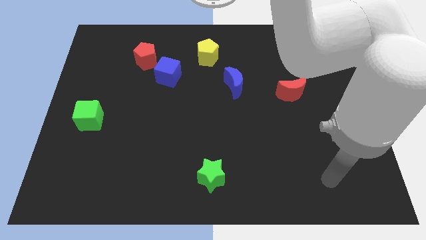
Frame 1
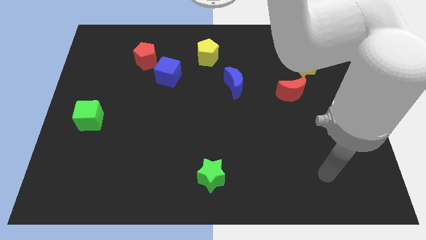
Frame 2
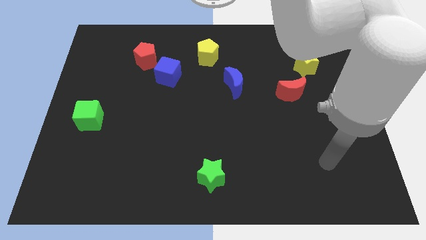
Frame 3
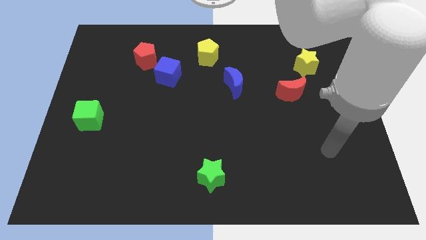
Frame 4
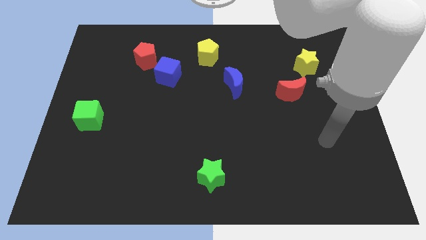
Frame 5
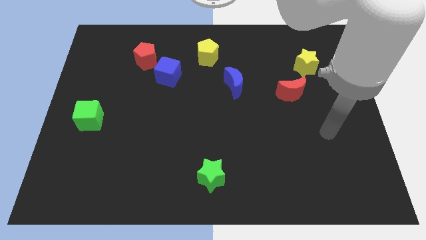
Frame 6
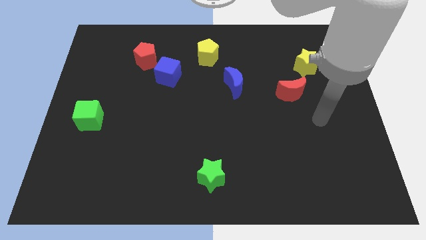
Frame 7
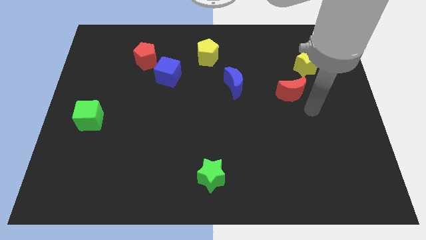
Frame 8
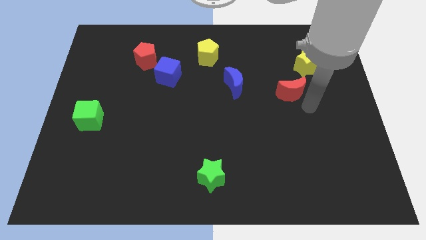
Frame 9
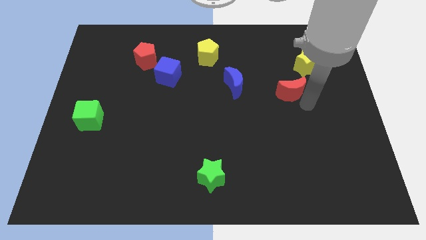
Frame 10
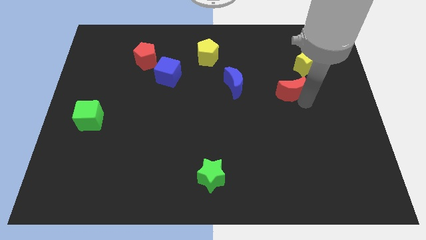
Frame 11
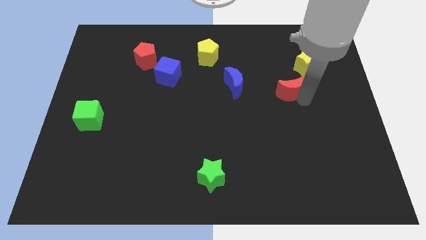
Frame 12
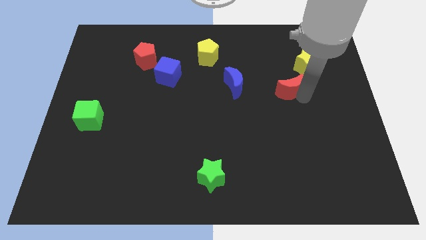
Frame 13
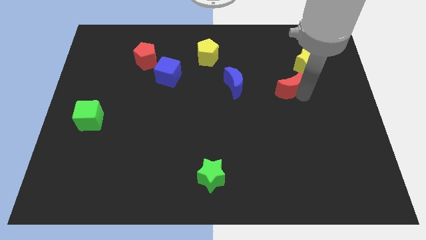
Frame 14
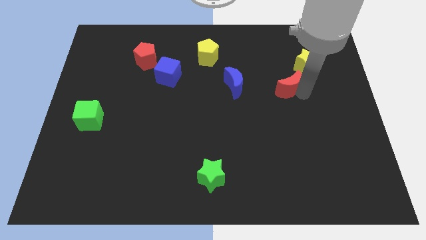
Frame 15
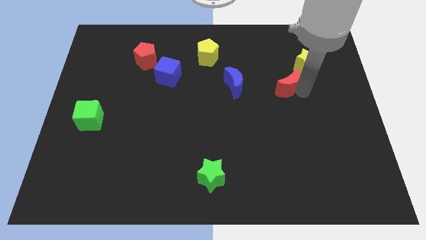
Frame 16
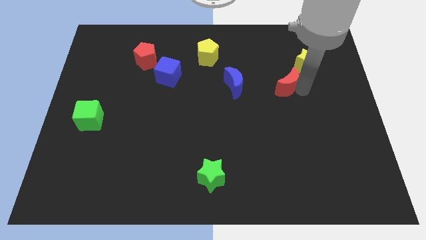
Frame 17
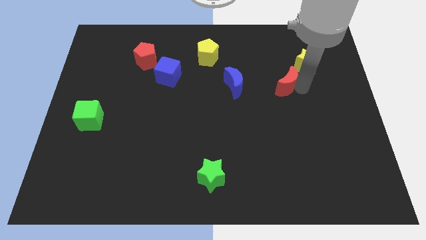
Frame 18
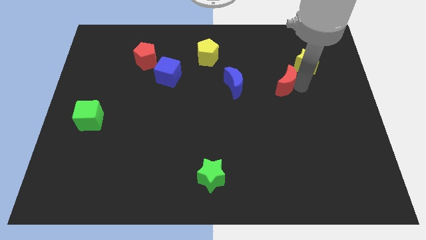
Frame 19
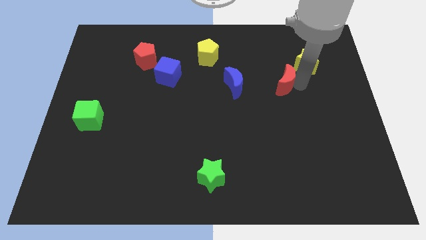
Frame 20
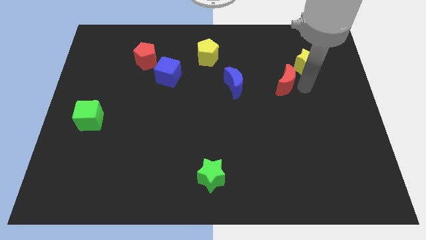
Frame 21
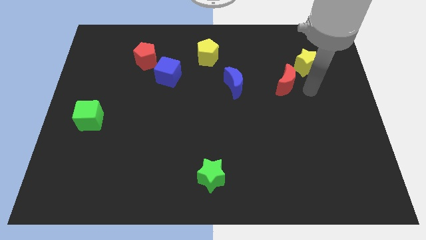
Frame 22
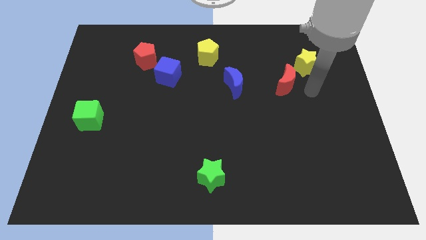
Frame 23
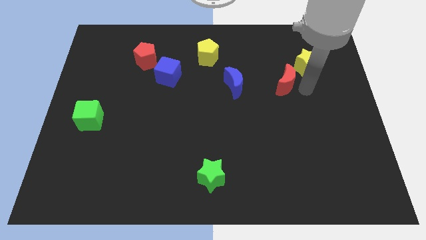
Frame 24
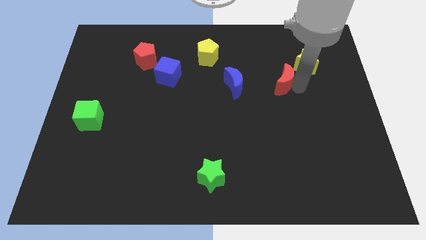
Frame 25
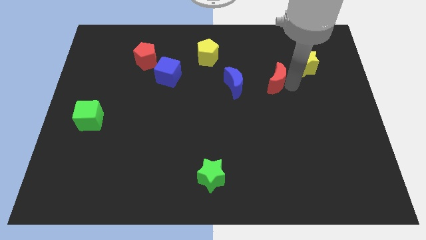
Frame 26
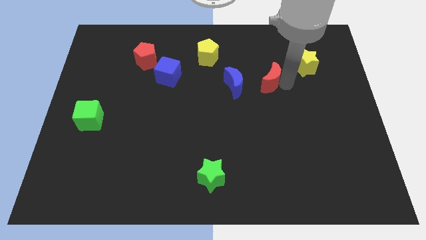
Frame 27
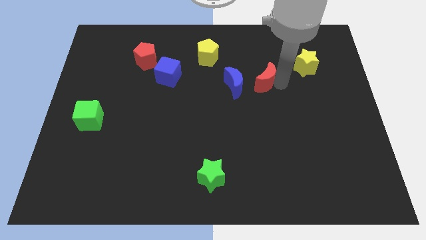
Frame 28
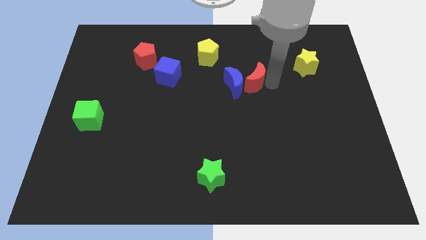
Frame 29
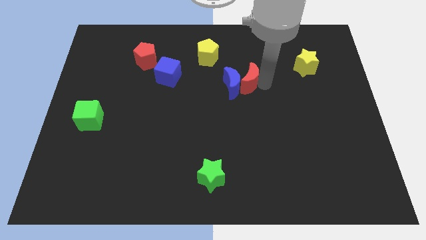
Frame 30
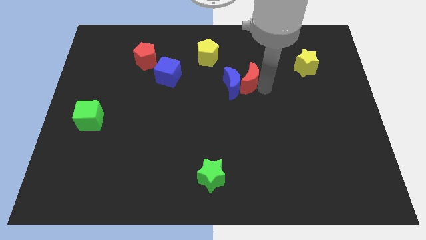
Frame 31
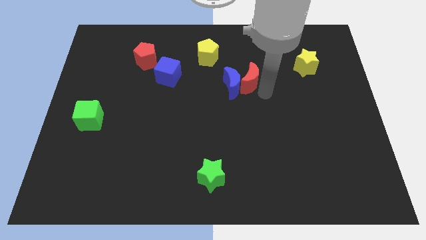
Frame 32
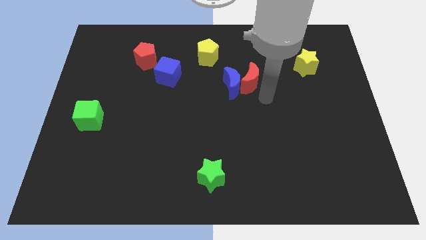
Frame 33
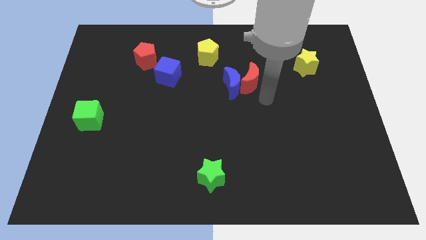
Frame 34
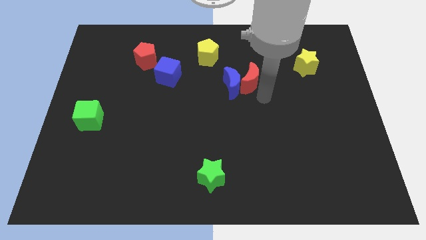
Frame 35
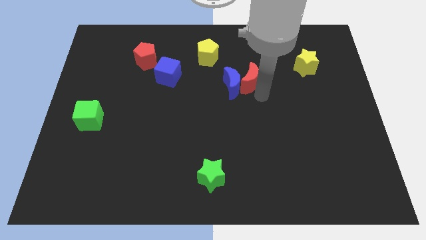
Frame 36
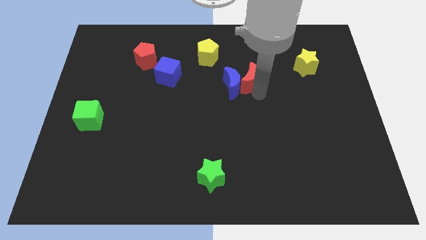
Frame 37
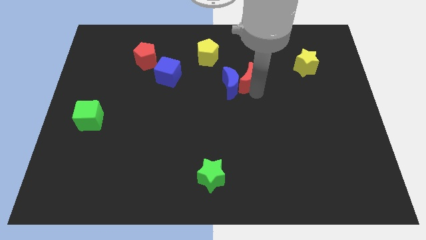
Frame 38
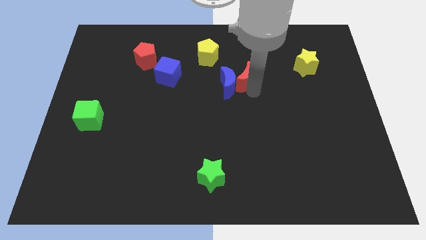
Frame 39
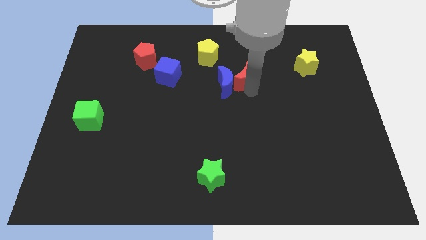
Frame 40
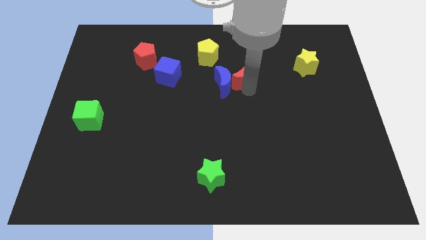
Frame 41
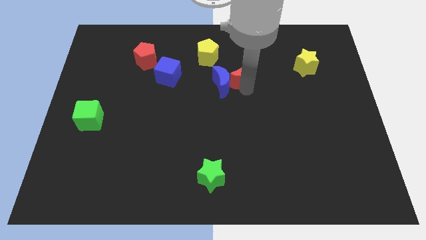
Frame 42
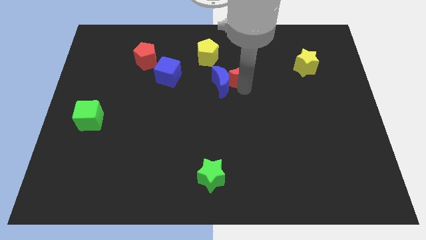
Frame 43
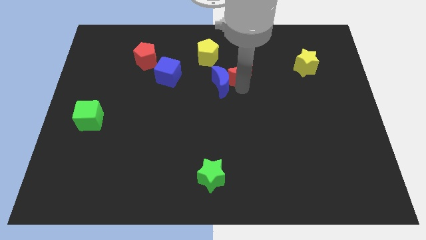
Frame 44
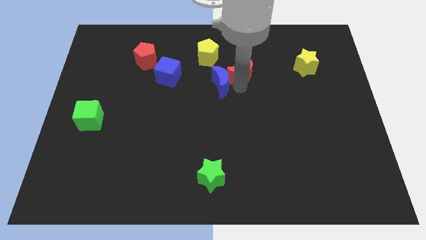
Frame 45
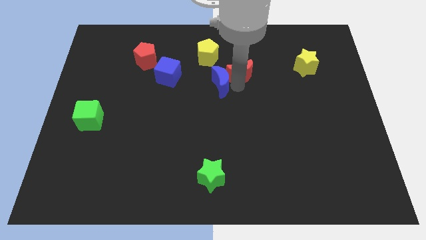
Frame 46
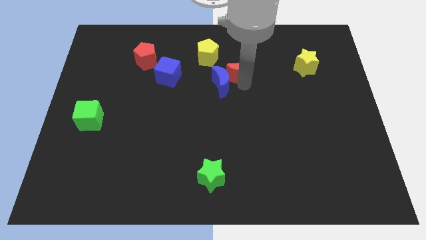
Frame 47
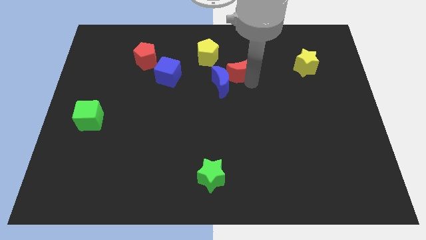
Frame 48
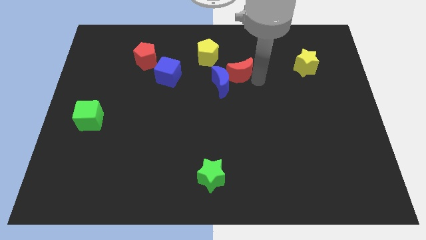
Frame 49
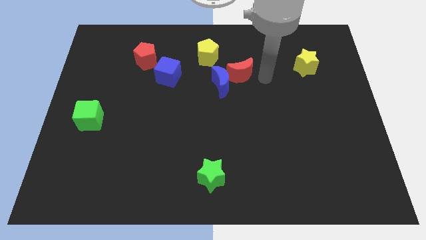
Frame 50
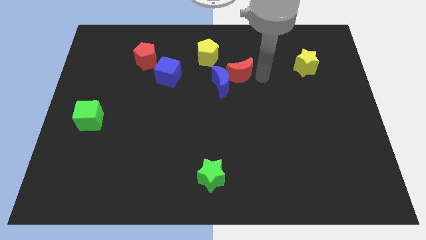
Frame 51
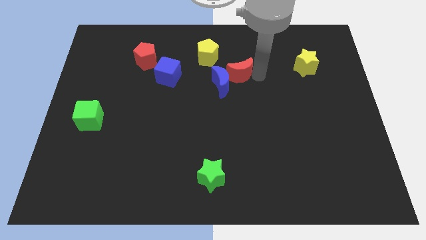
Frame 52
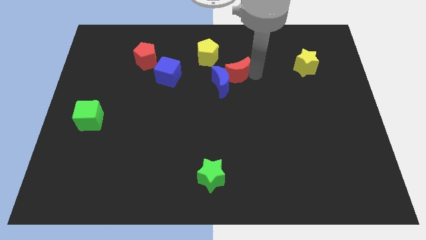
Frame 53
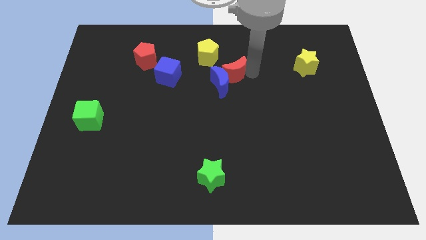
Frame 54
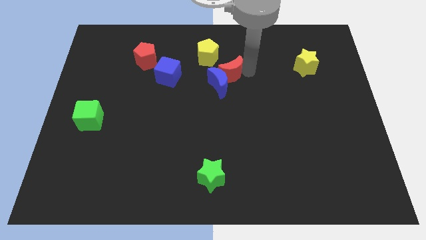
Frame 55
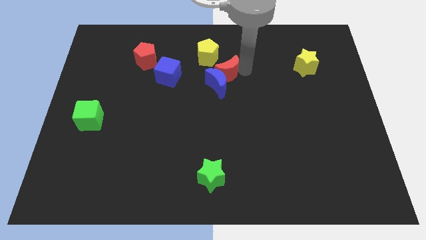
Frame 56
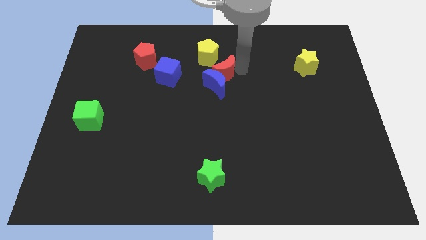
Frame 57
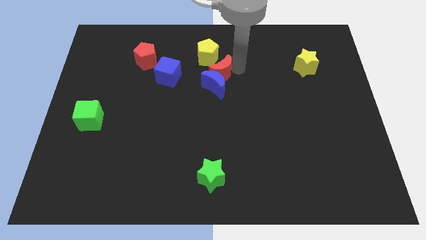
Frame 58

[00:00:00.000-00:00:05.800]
move the red moon to the top left of the blue moon

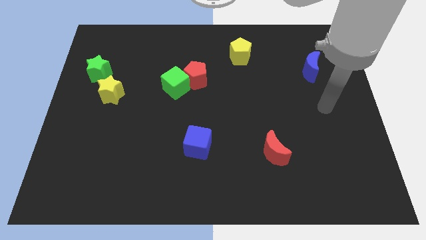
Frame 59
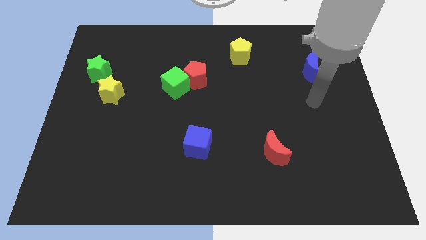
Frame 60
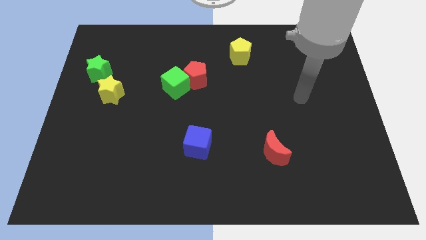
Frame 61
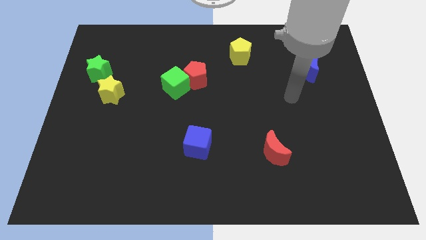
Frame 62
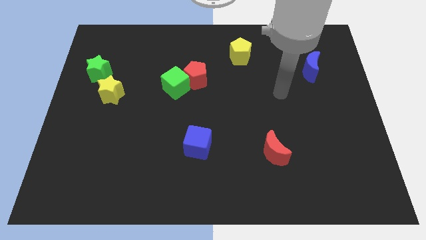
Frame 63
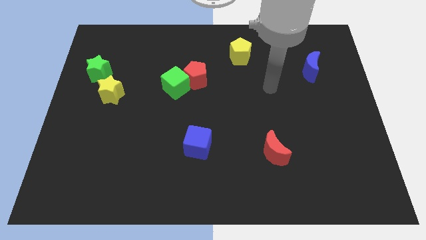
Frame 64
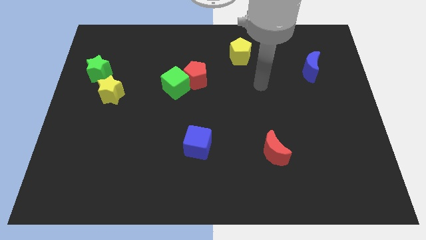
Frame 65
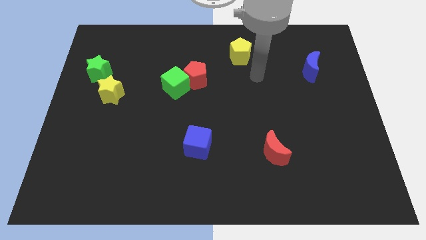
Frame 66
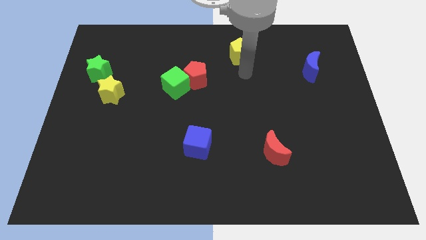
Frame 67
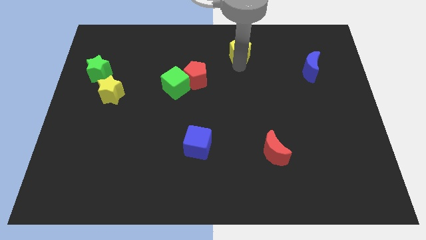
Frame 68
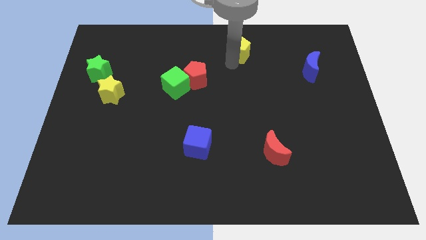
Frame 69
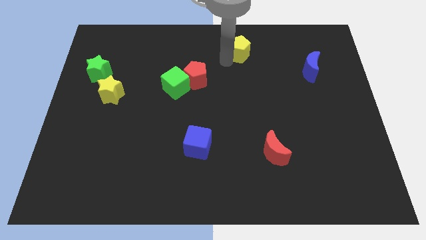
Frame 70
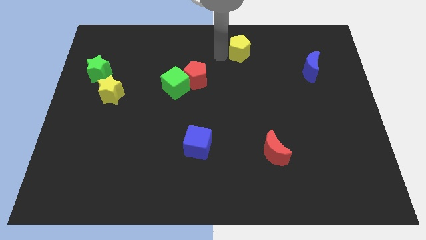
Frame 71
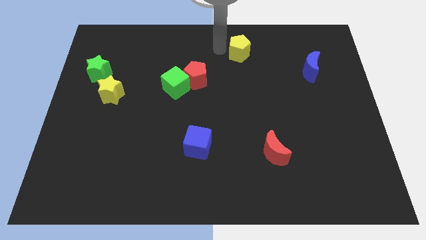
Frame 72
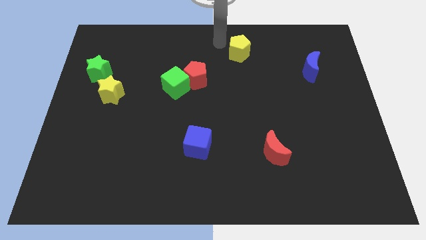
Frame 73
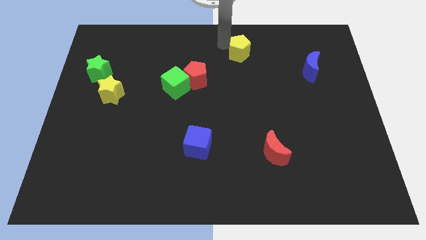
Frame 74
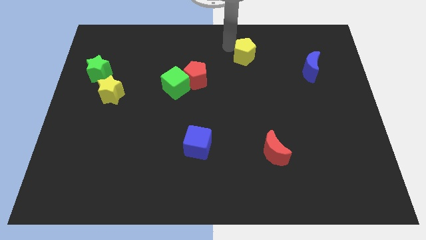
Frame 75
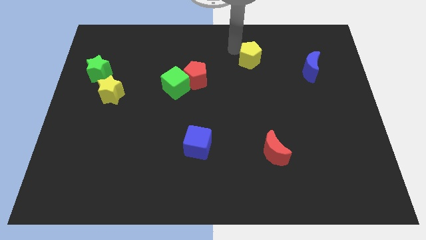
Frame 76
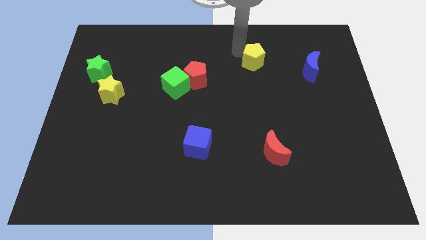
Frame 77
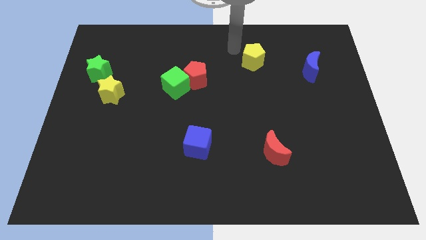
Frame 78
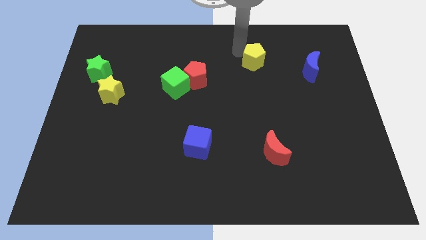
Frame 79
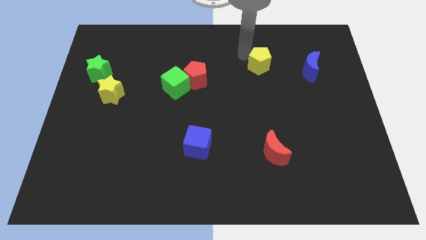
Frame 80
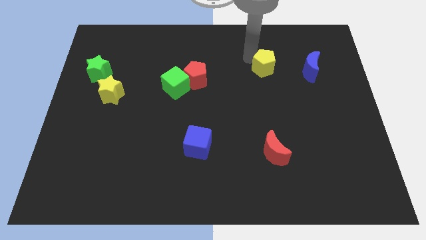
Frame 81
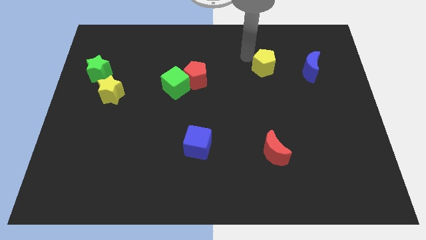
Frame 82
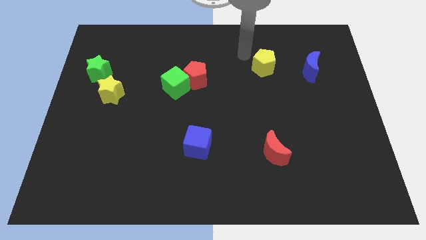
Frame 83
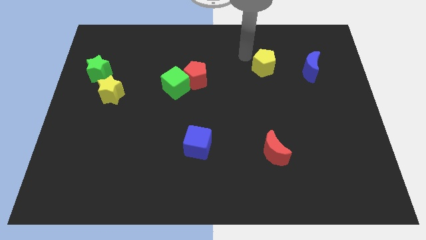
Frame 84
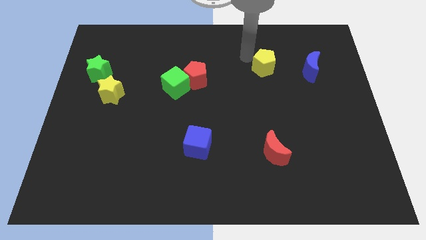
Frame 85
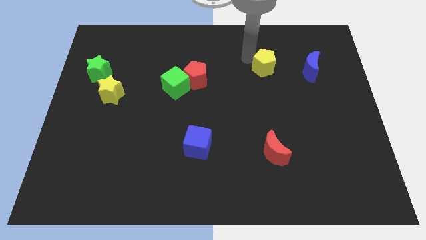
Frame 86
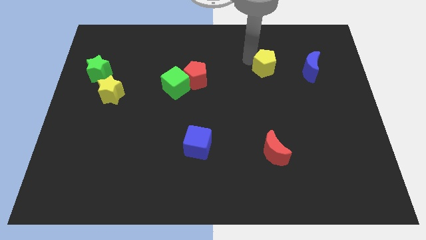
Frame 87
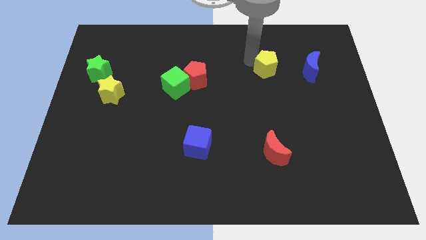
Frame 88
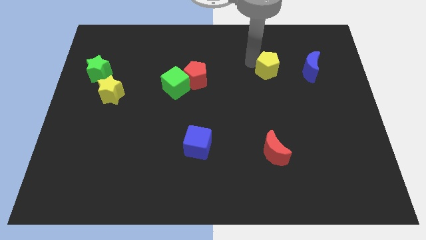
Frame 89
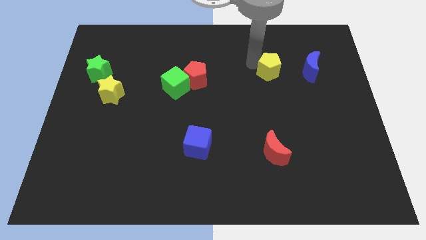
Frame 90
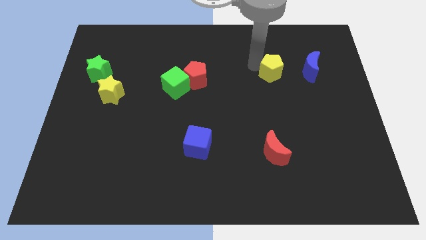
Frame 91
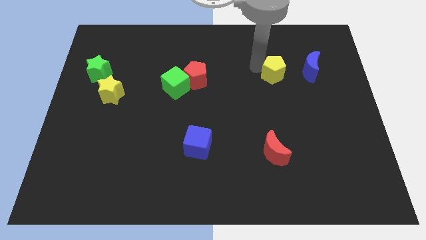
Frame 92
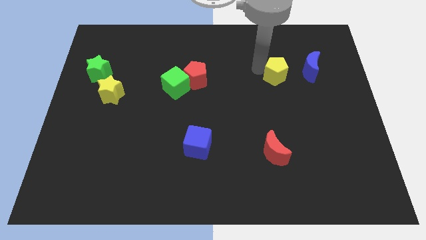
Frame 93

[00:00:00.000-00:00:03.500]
push the yellow pentagon diagonally down and to the left of the blue moon
